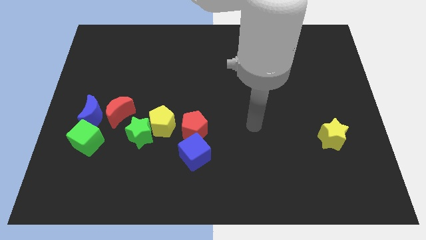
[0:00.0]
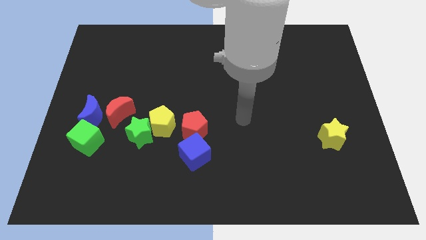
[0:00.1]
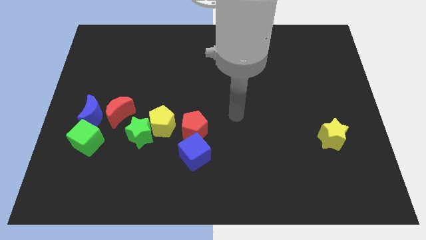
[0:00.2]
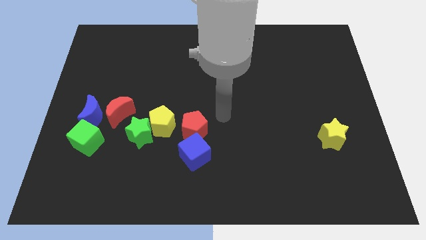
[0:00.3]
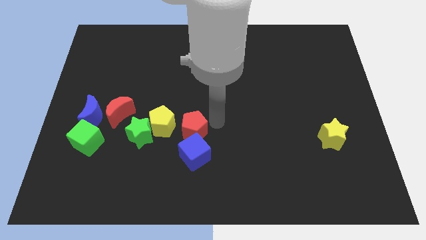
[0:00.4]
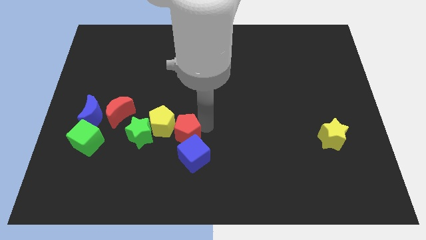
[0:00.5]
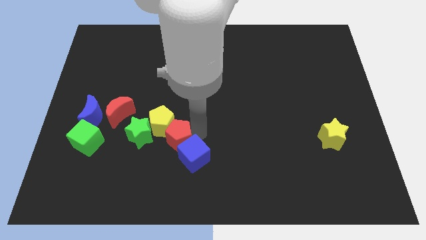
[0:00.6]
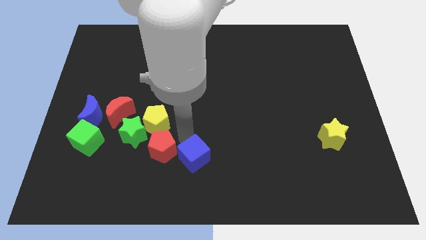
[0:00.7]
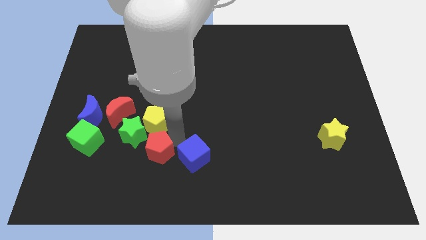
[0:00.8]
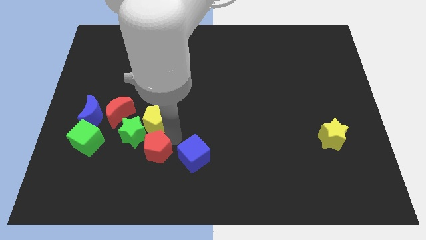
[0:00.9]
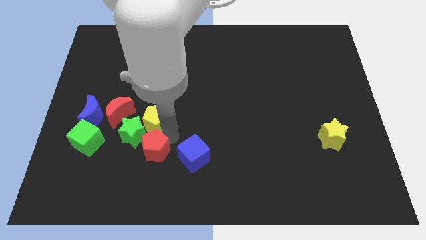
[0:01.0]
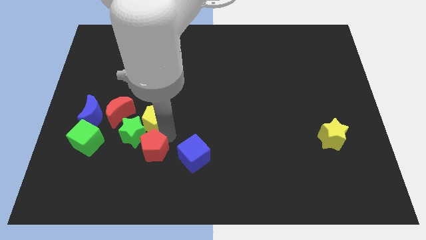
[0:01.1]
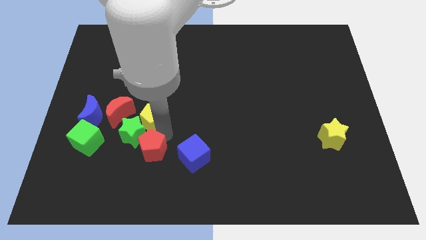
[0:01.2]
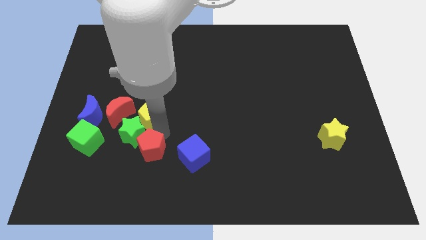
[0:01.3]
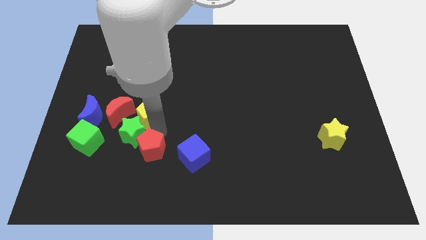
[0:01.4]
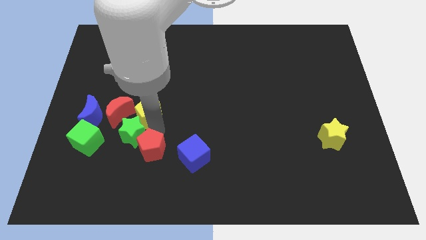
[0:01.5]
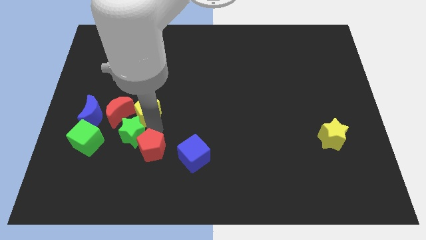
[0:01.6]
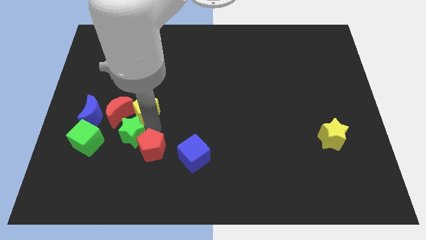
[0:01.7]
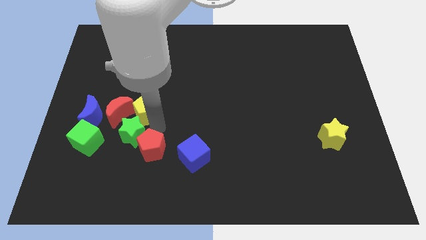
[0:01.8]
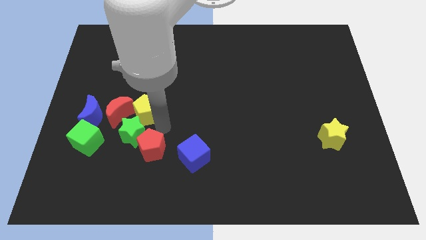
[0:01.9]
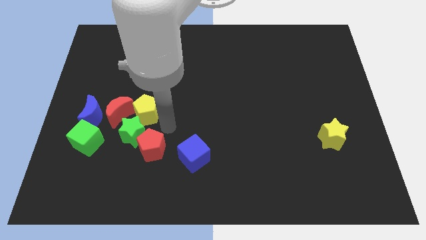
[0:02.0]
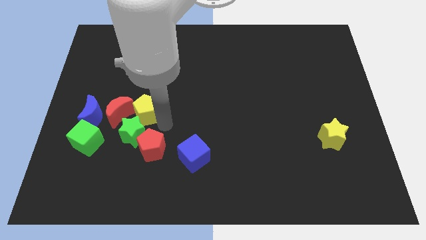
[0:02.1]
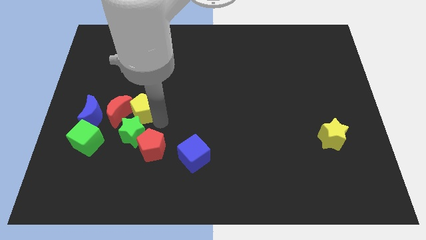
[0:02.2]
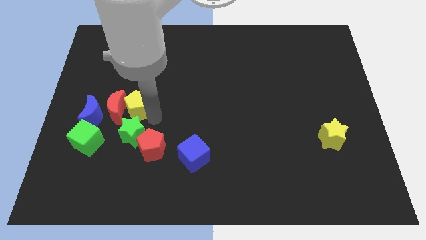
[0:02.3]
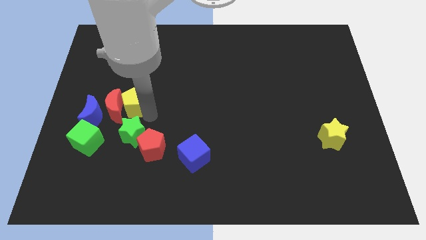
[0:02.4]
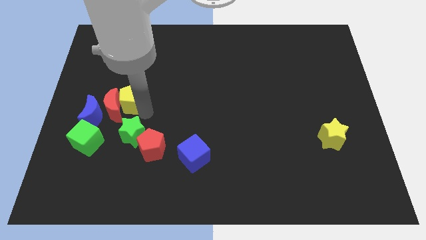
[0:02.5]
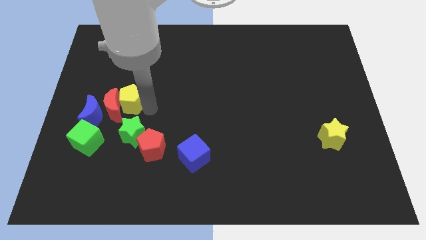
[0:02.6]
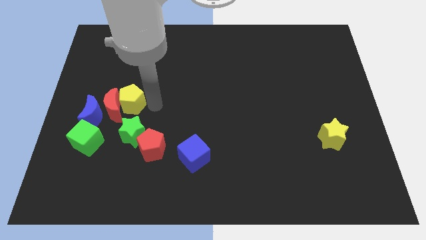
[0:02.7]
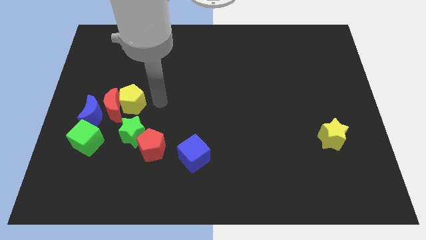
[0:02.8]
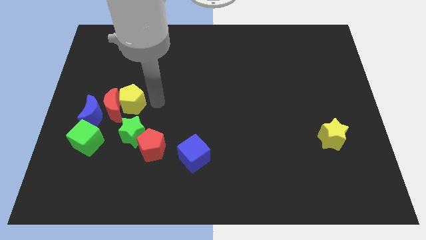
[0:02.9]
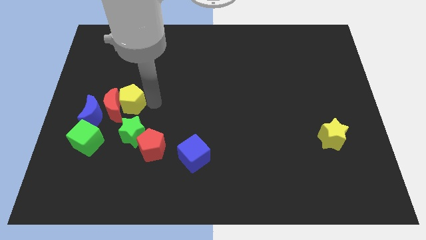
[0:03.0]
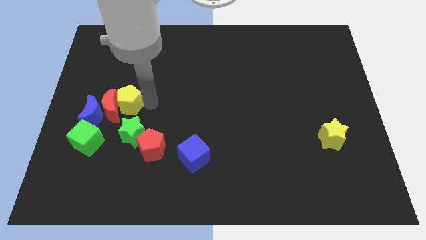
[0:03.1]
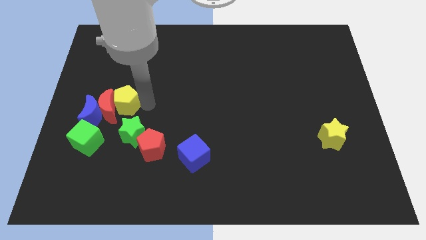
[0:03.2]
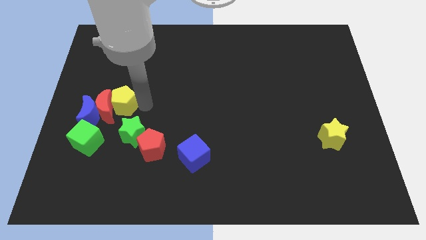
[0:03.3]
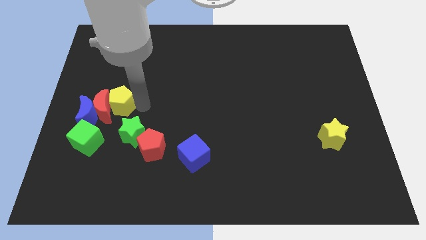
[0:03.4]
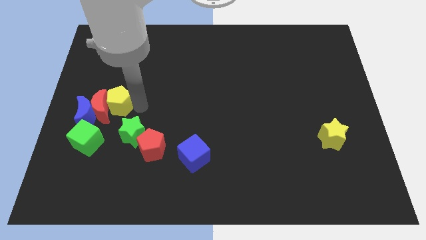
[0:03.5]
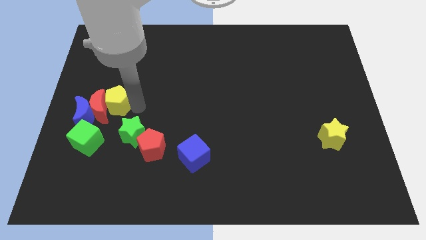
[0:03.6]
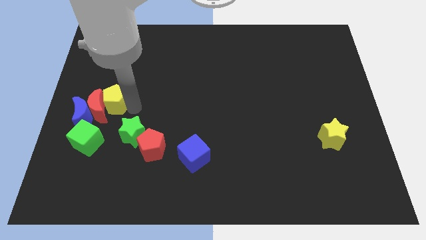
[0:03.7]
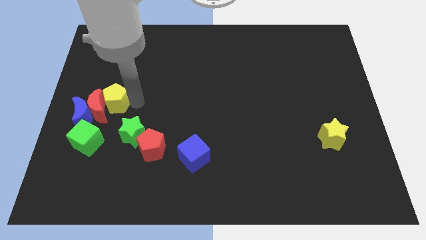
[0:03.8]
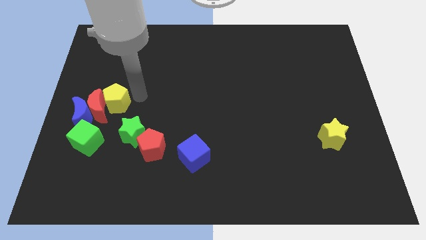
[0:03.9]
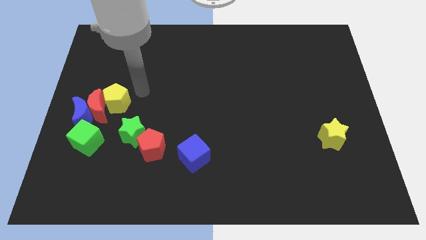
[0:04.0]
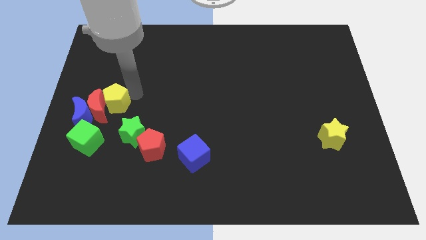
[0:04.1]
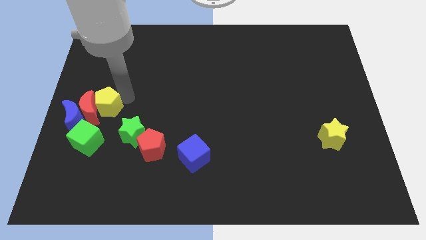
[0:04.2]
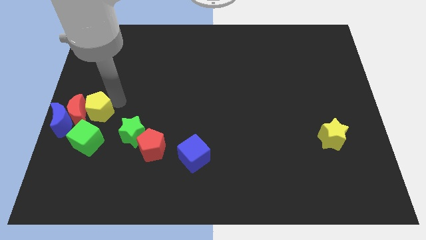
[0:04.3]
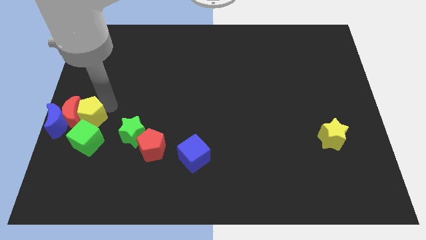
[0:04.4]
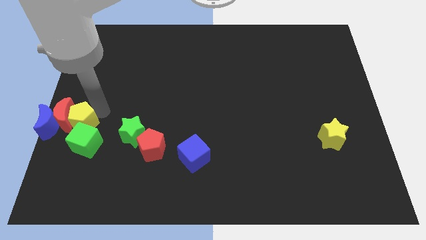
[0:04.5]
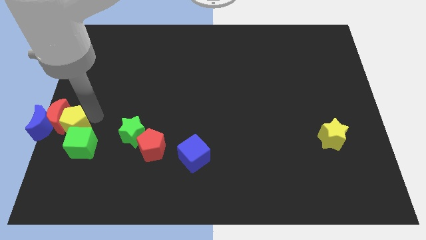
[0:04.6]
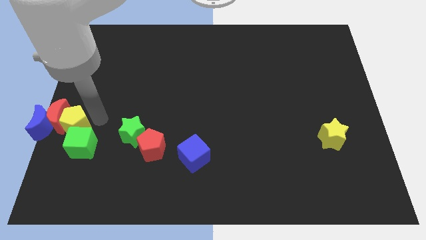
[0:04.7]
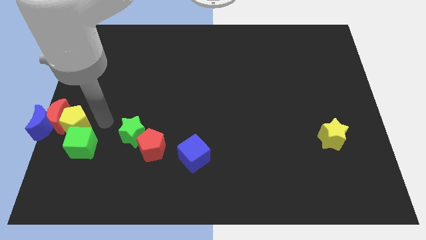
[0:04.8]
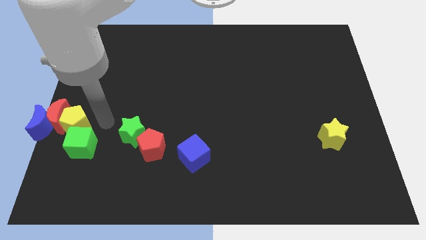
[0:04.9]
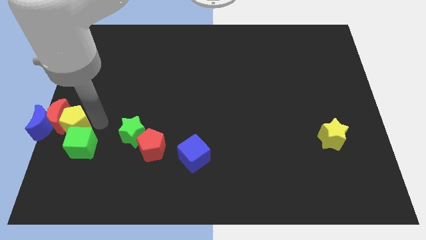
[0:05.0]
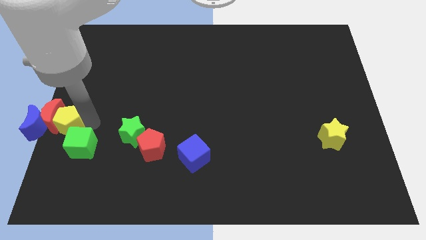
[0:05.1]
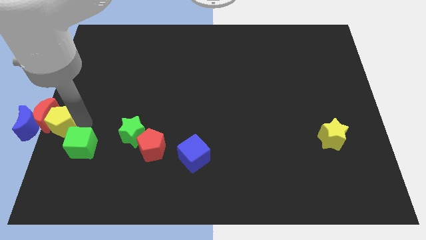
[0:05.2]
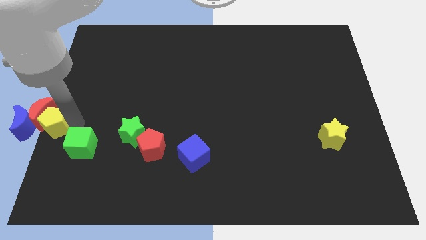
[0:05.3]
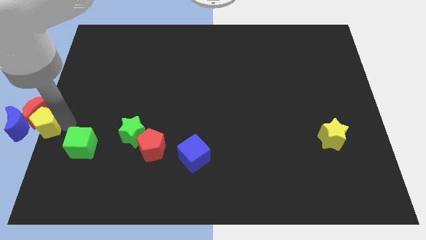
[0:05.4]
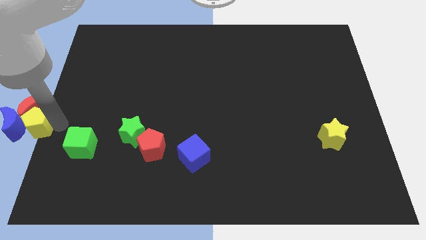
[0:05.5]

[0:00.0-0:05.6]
push the yellow pentagon close to the blue moon

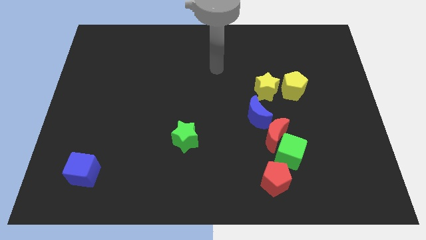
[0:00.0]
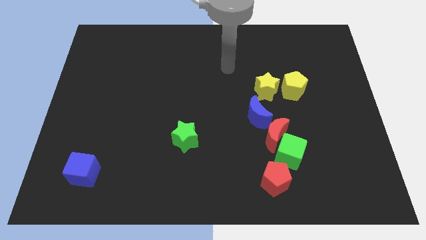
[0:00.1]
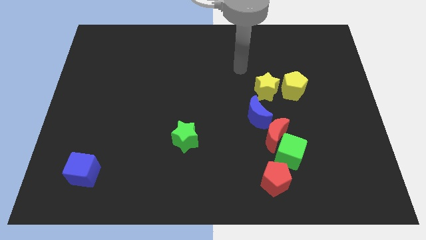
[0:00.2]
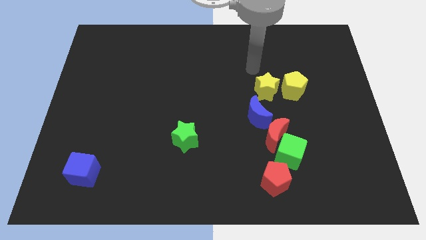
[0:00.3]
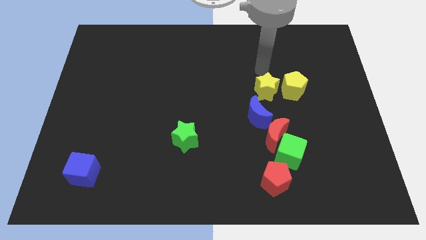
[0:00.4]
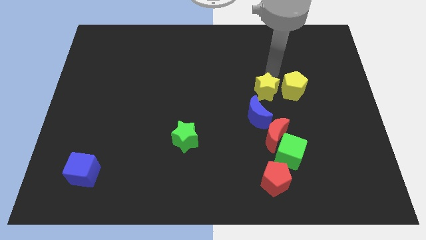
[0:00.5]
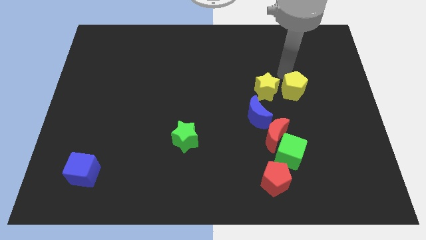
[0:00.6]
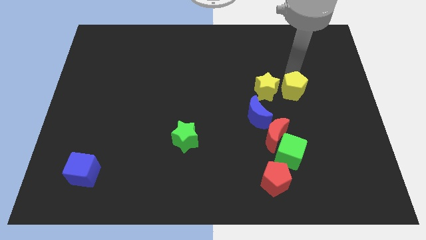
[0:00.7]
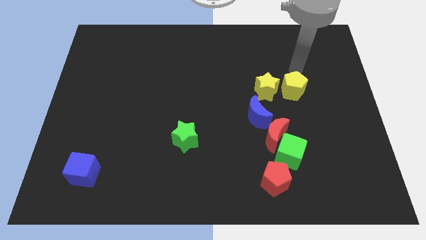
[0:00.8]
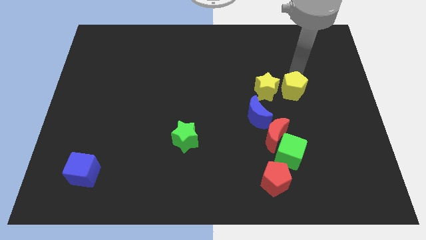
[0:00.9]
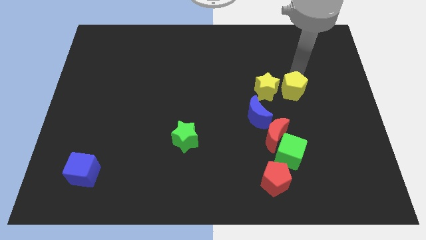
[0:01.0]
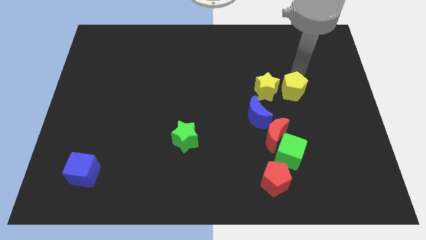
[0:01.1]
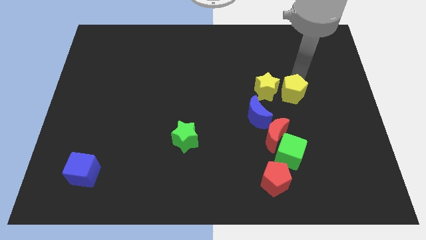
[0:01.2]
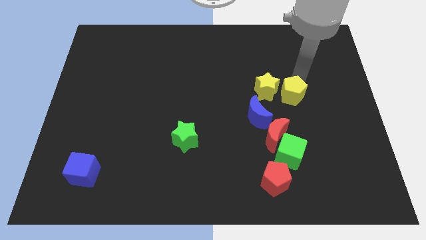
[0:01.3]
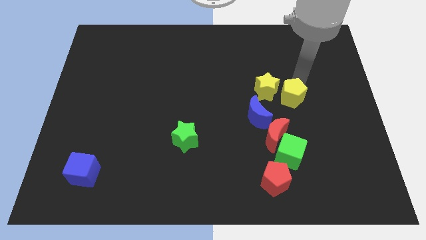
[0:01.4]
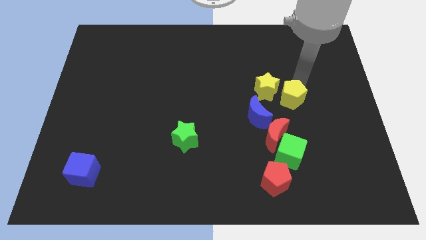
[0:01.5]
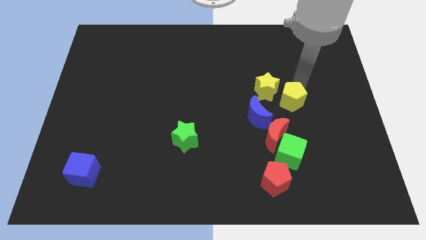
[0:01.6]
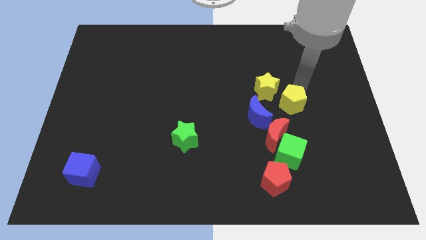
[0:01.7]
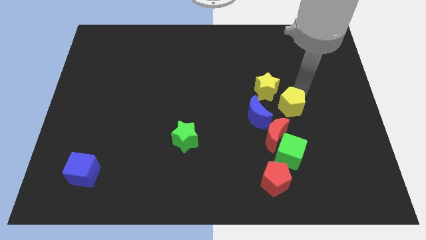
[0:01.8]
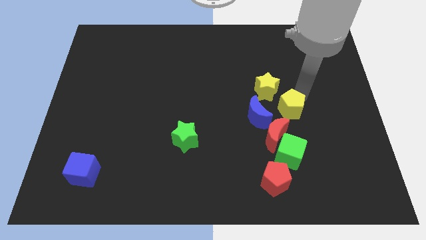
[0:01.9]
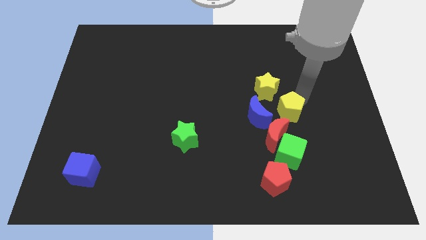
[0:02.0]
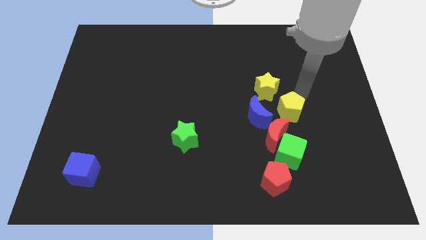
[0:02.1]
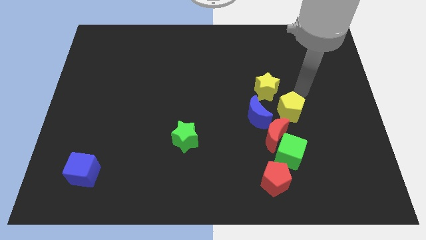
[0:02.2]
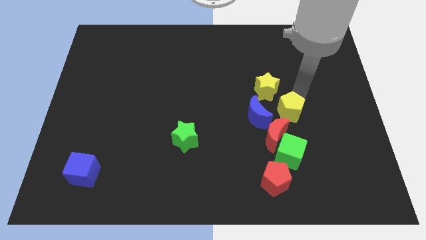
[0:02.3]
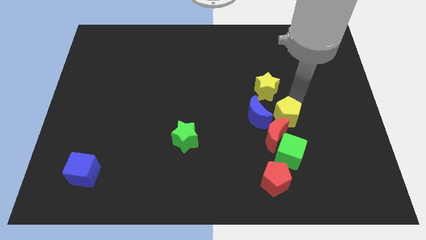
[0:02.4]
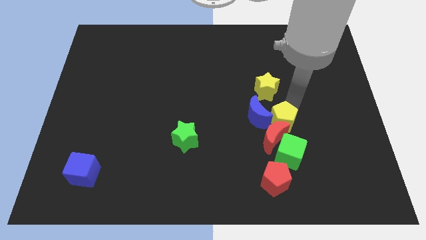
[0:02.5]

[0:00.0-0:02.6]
put the yellow pentagon towards the red moon
